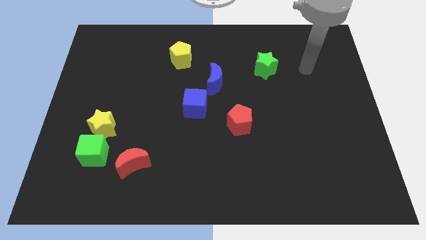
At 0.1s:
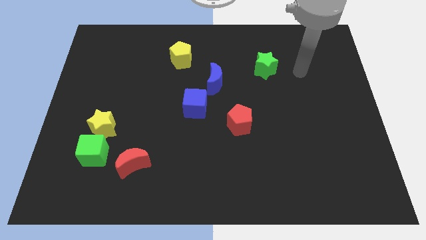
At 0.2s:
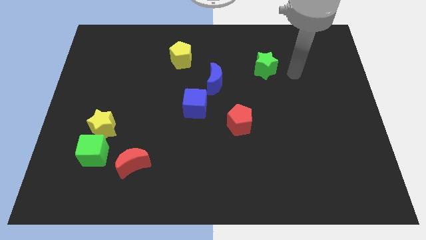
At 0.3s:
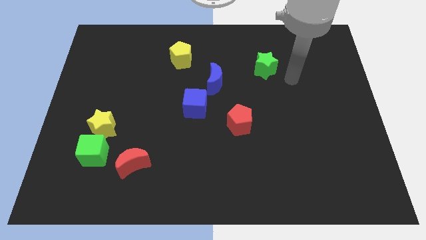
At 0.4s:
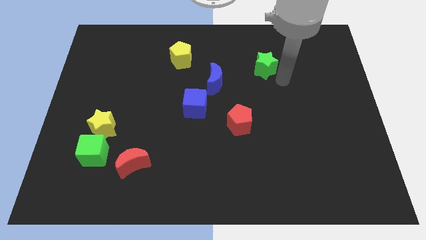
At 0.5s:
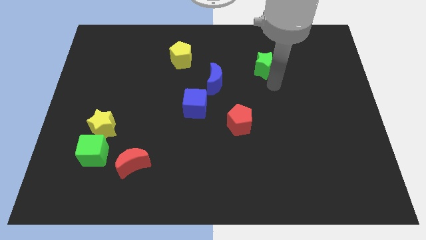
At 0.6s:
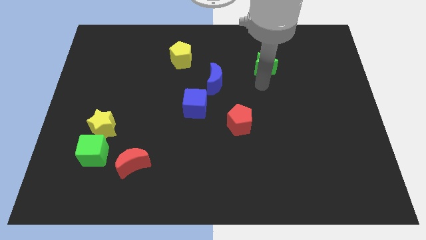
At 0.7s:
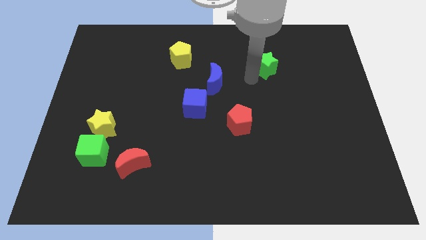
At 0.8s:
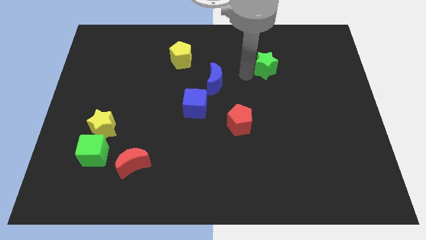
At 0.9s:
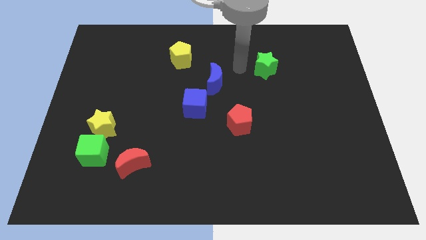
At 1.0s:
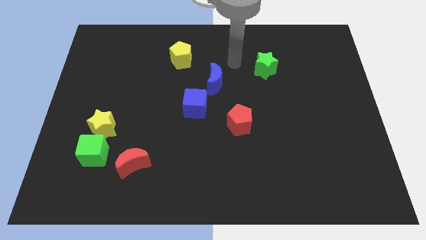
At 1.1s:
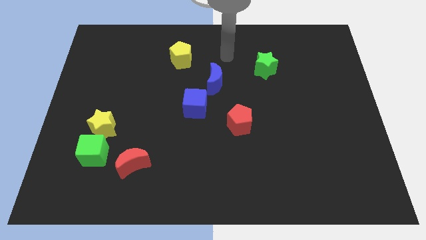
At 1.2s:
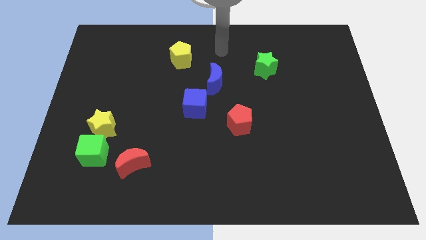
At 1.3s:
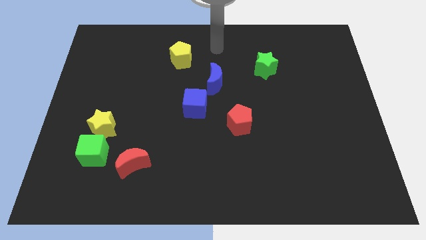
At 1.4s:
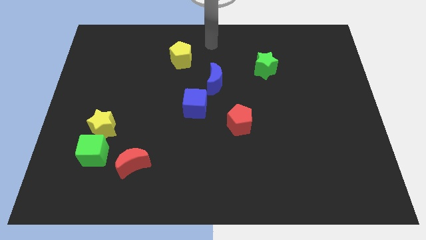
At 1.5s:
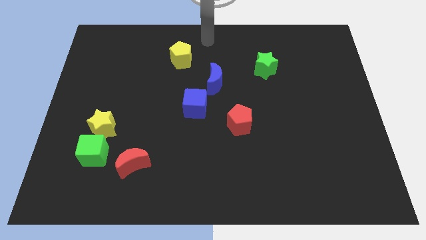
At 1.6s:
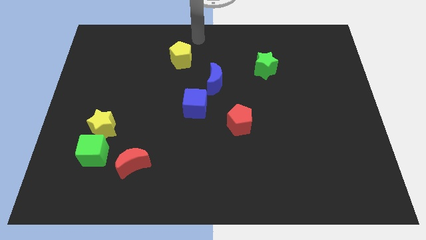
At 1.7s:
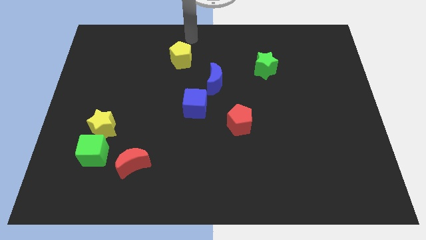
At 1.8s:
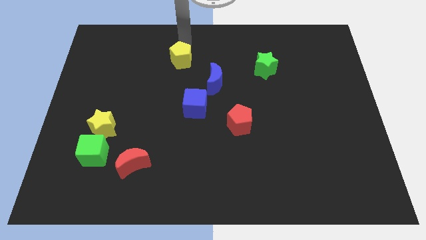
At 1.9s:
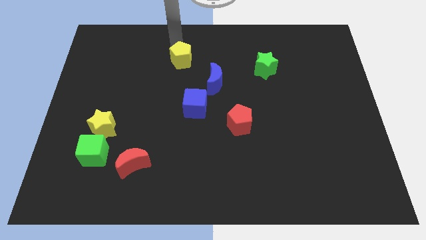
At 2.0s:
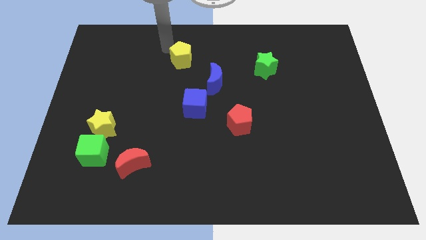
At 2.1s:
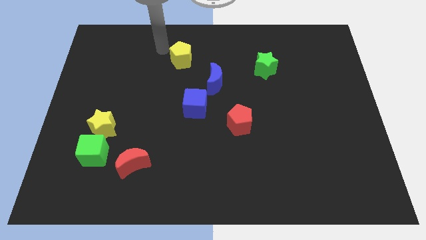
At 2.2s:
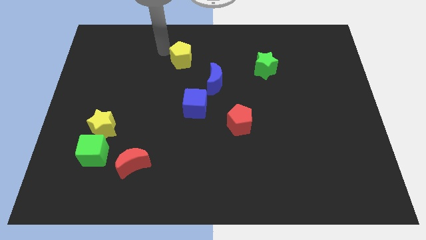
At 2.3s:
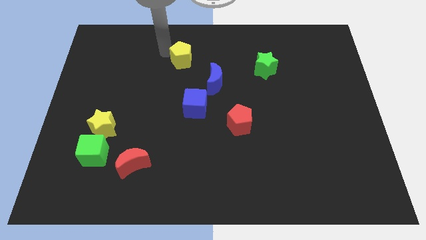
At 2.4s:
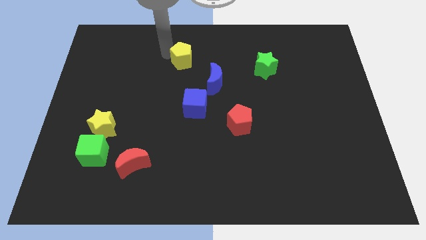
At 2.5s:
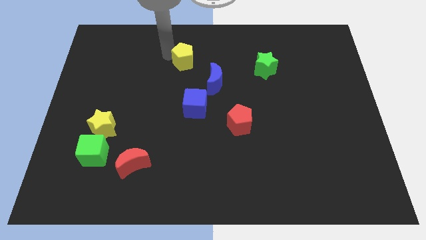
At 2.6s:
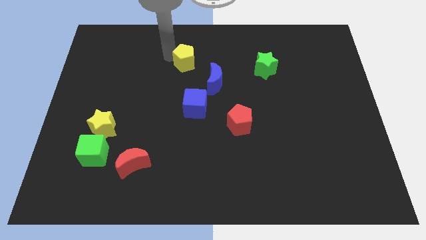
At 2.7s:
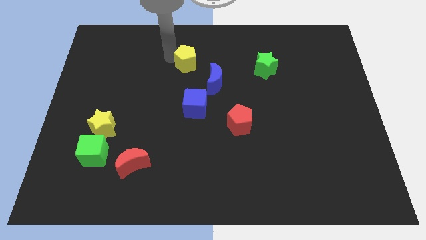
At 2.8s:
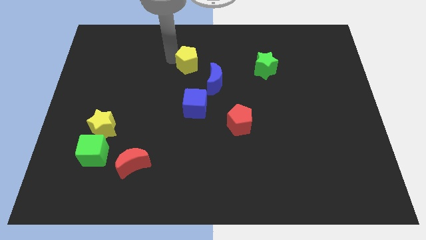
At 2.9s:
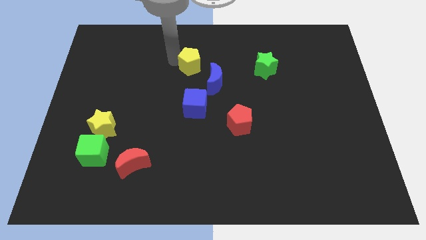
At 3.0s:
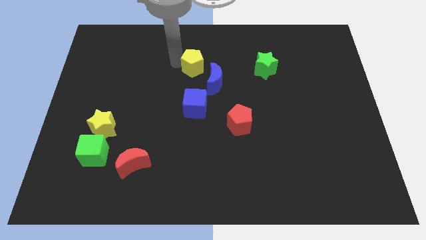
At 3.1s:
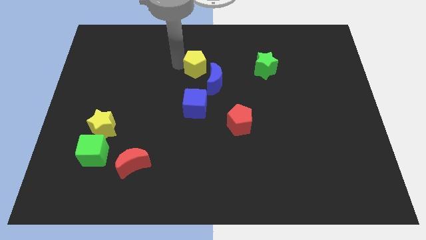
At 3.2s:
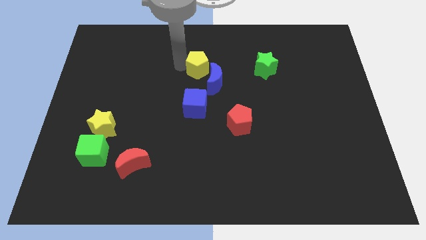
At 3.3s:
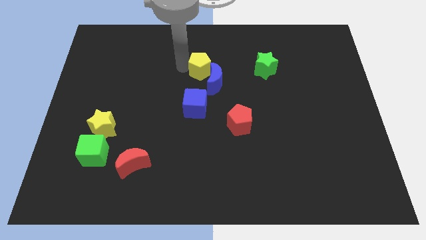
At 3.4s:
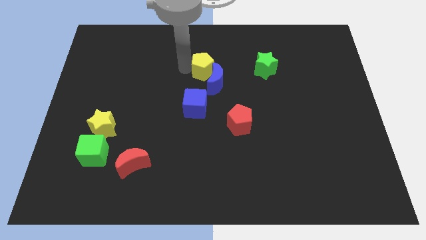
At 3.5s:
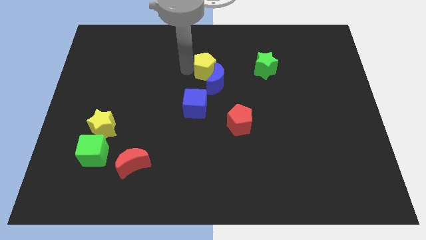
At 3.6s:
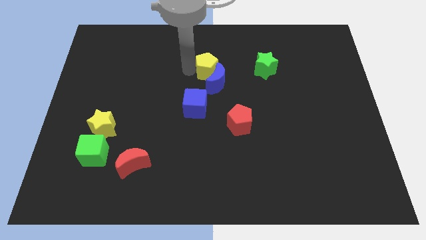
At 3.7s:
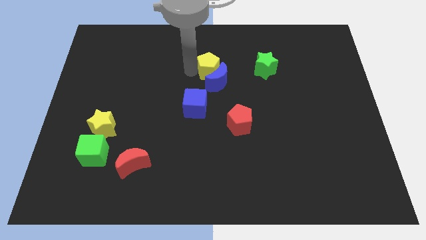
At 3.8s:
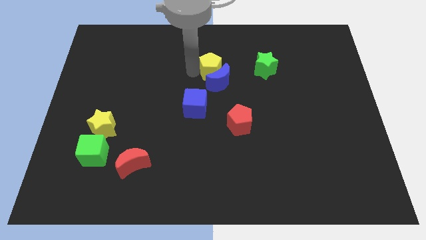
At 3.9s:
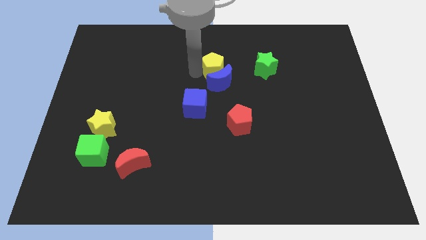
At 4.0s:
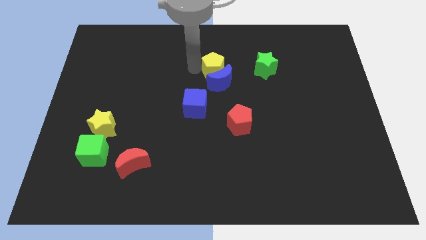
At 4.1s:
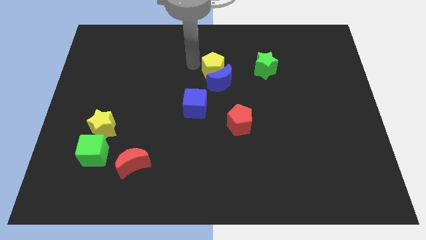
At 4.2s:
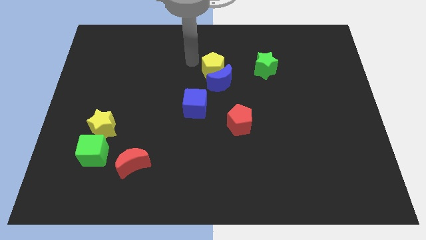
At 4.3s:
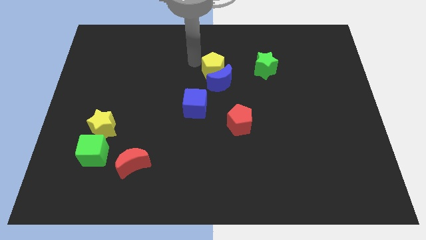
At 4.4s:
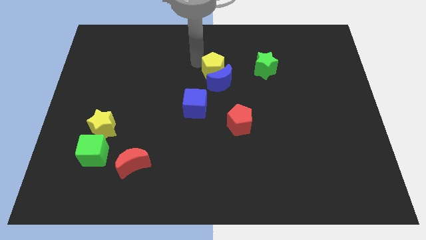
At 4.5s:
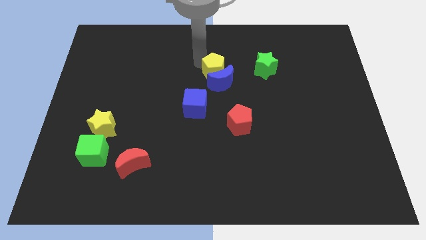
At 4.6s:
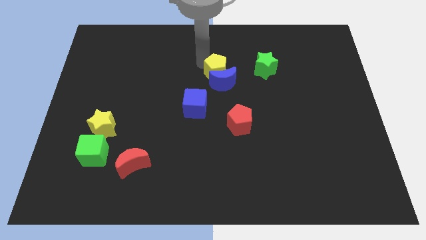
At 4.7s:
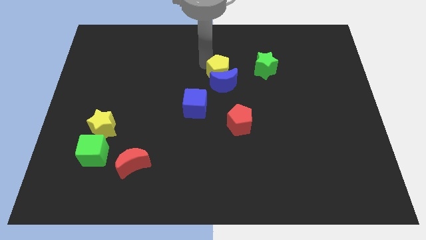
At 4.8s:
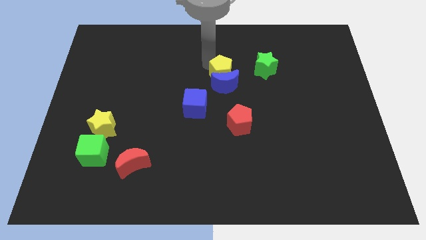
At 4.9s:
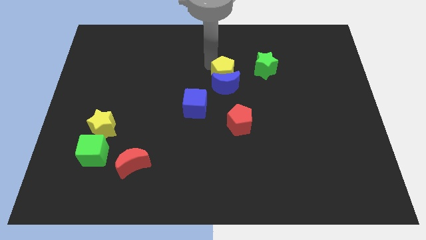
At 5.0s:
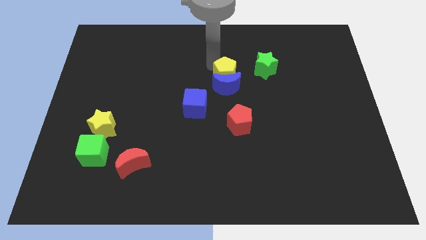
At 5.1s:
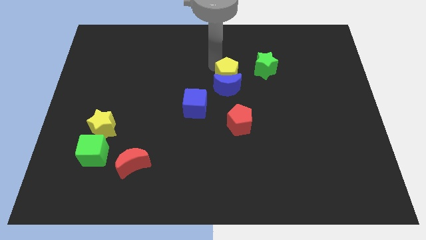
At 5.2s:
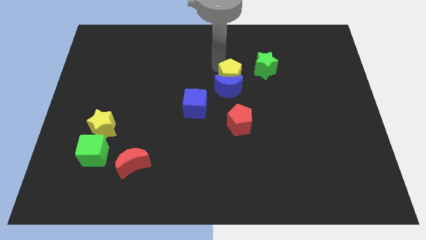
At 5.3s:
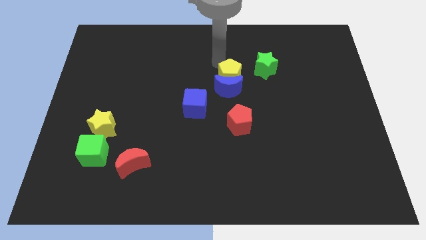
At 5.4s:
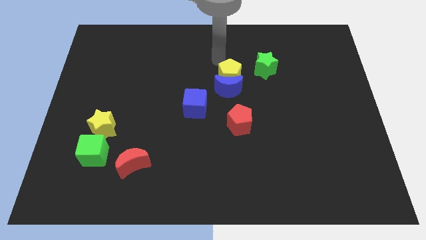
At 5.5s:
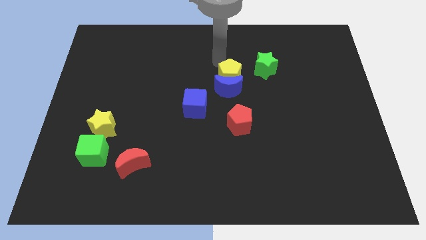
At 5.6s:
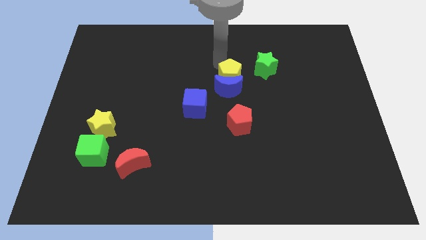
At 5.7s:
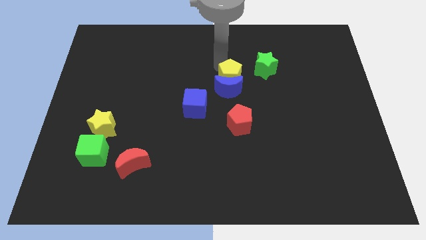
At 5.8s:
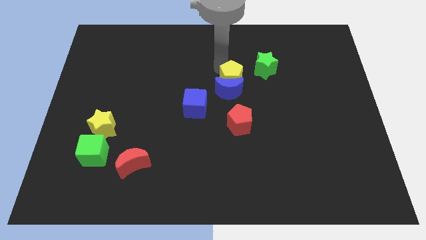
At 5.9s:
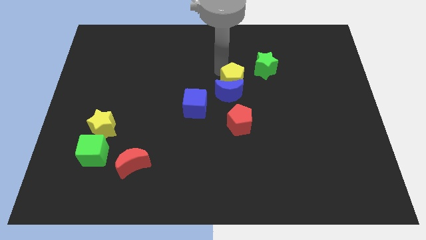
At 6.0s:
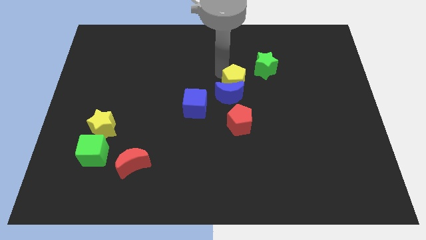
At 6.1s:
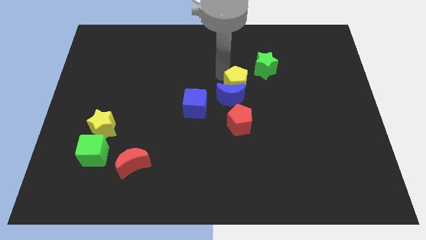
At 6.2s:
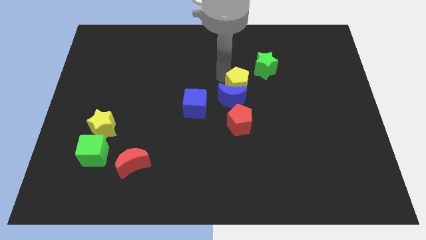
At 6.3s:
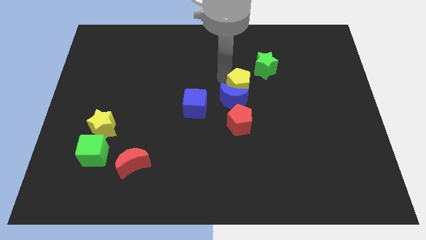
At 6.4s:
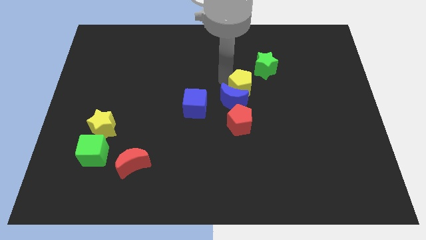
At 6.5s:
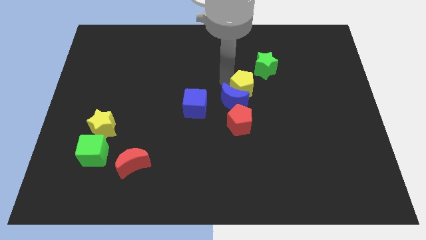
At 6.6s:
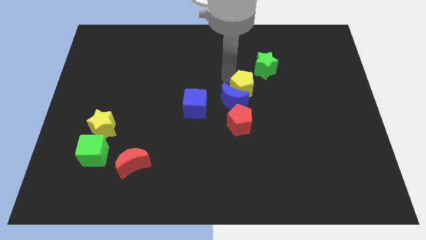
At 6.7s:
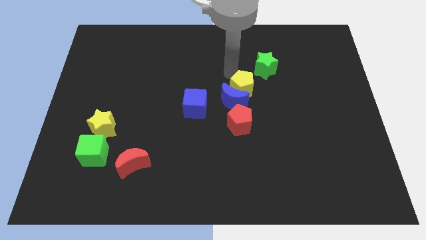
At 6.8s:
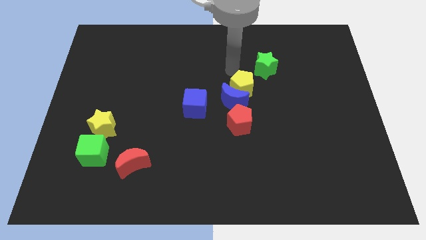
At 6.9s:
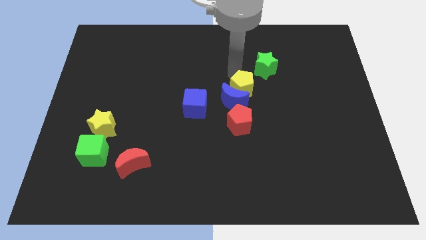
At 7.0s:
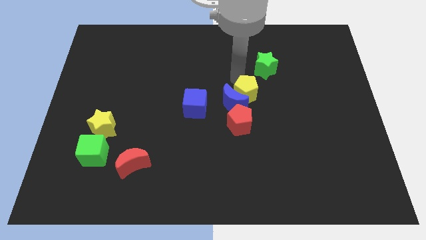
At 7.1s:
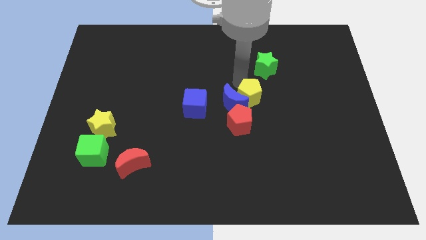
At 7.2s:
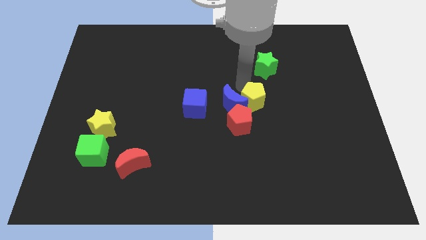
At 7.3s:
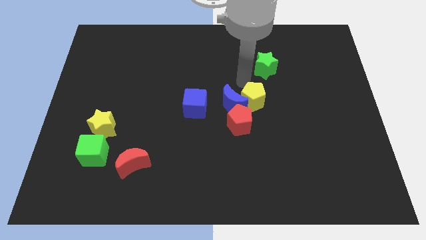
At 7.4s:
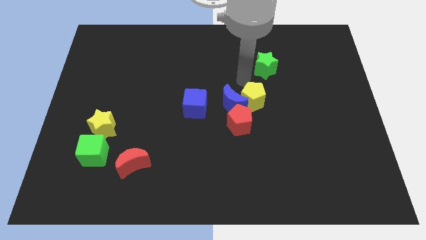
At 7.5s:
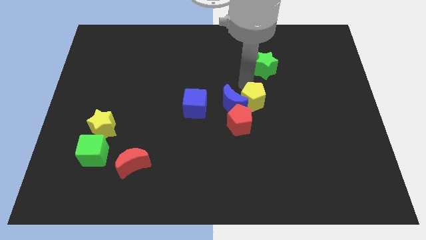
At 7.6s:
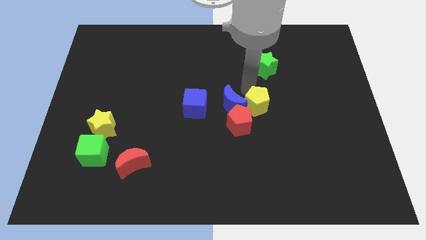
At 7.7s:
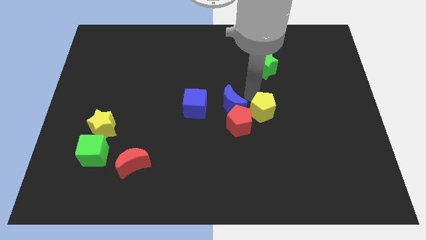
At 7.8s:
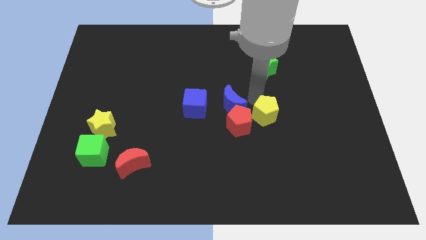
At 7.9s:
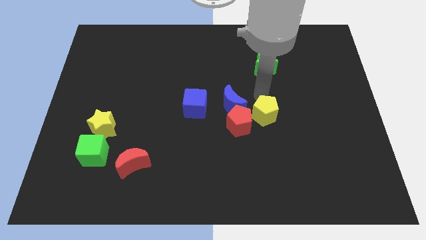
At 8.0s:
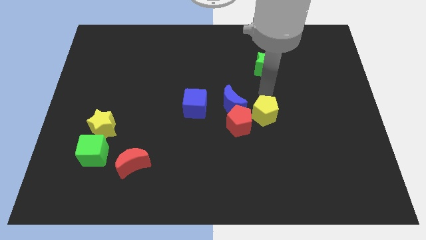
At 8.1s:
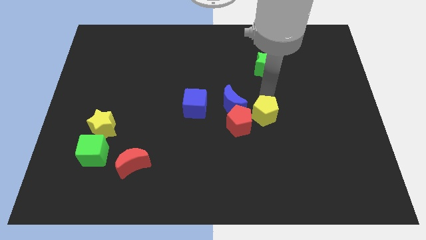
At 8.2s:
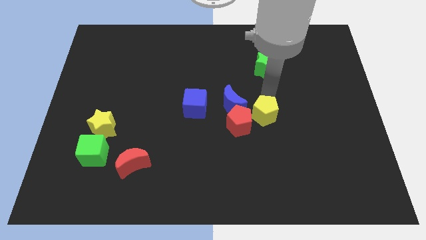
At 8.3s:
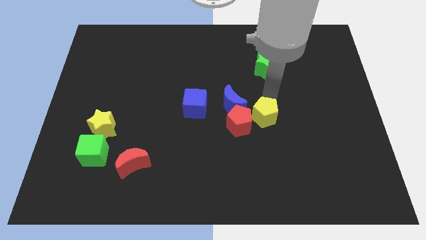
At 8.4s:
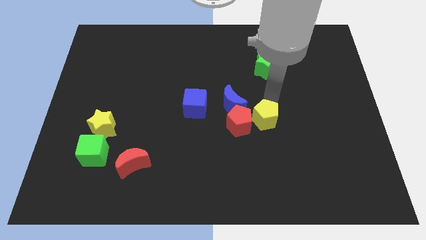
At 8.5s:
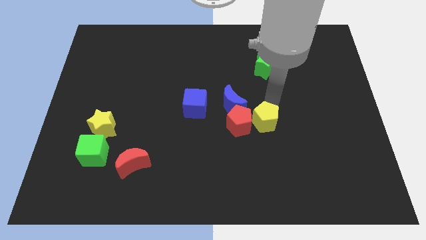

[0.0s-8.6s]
push the yellow pentagon to the bottom right of the red pentagon
